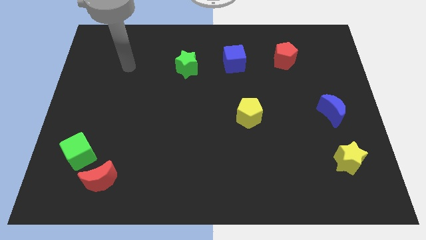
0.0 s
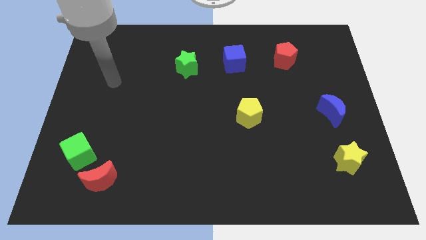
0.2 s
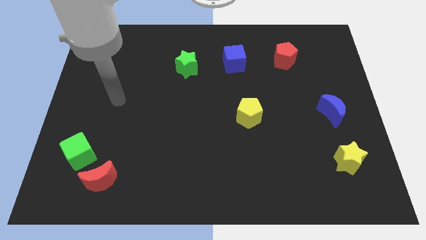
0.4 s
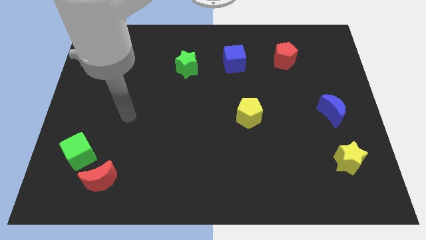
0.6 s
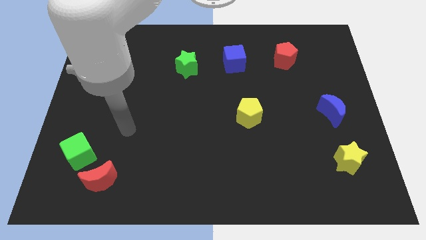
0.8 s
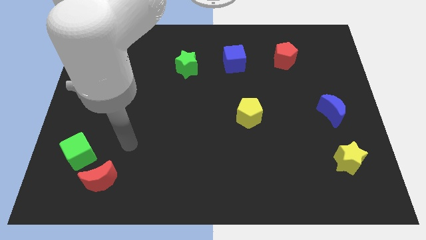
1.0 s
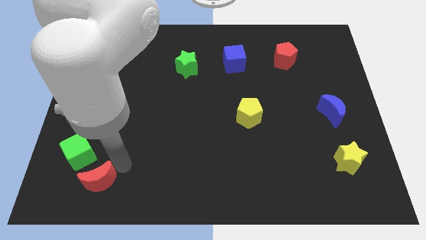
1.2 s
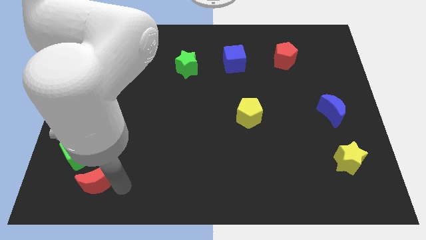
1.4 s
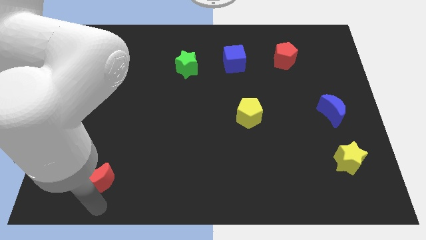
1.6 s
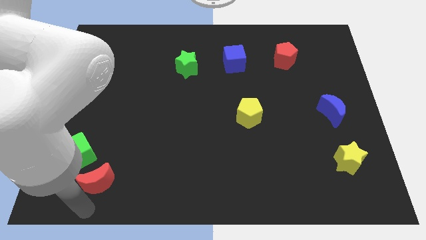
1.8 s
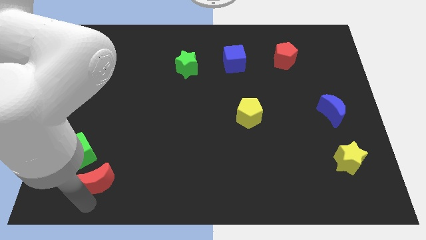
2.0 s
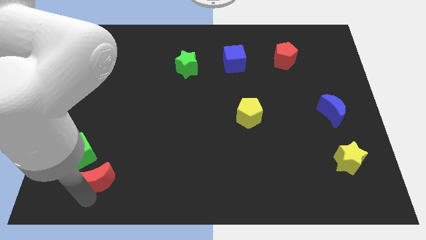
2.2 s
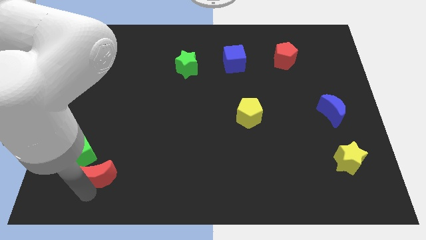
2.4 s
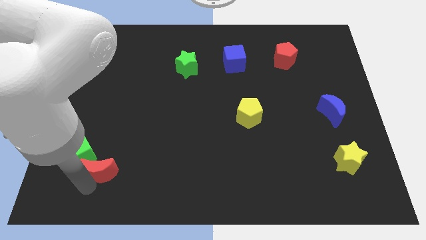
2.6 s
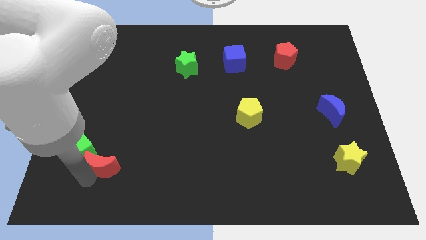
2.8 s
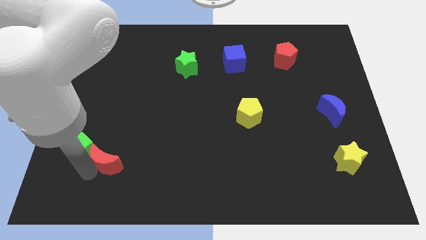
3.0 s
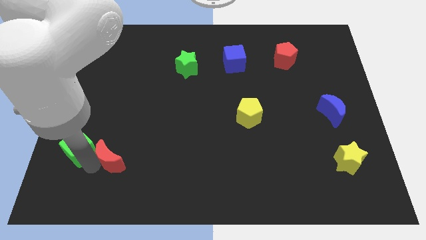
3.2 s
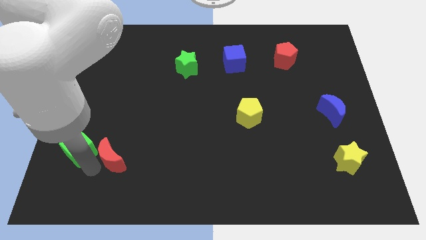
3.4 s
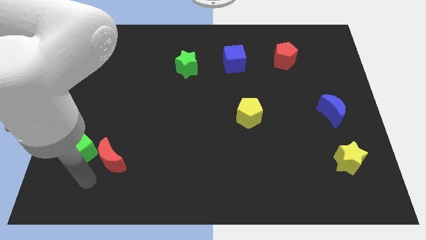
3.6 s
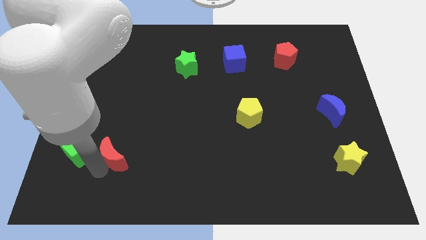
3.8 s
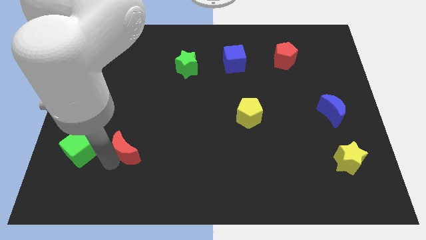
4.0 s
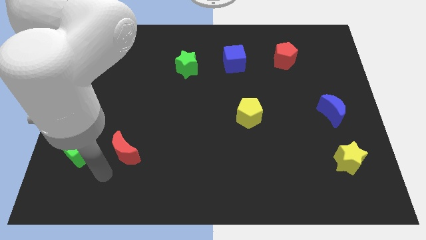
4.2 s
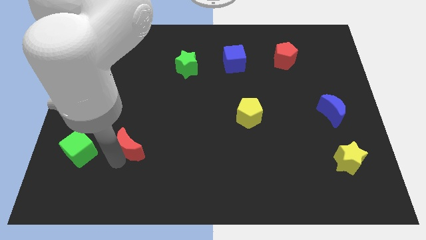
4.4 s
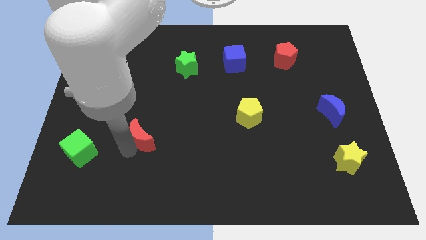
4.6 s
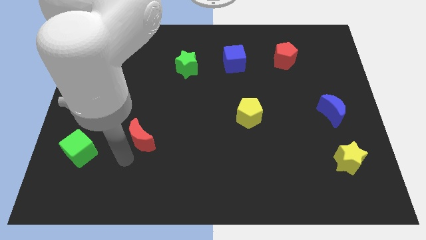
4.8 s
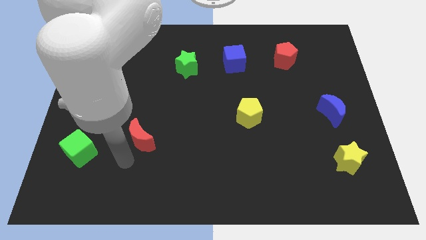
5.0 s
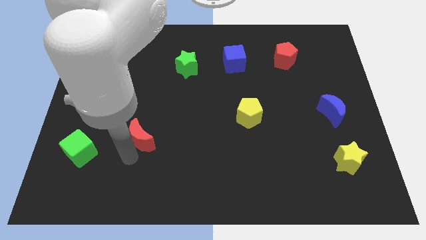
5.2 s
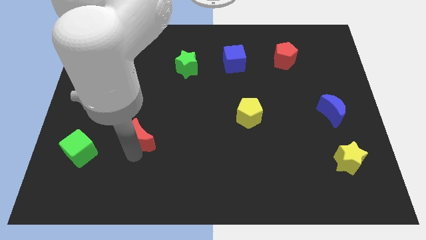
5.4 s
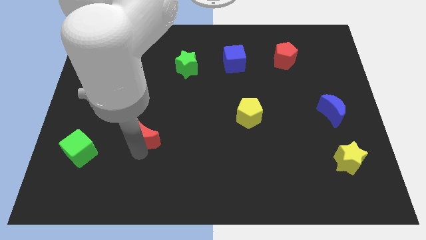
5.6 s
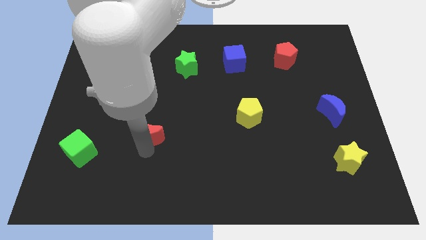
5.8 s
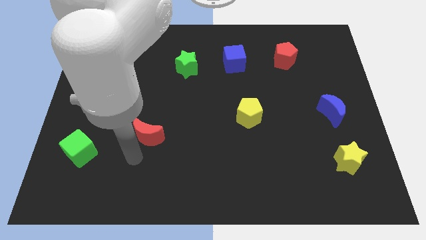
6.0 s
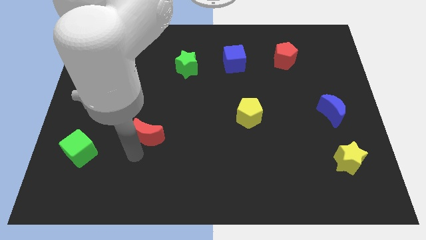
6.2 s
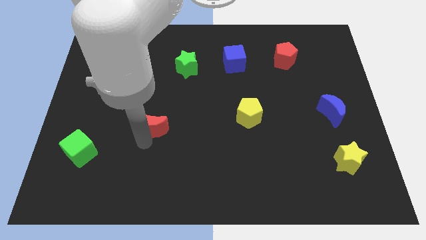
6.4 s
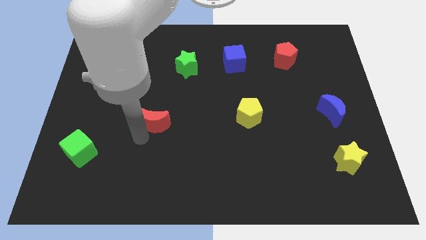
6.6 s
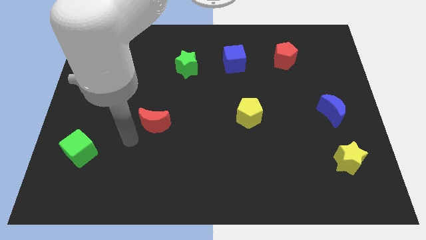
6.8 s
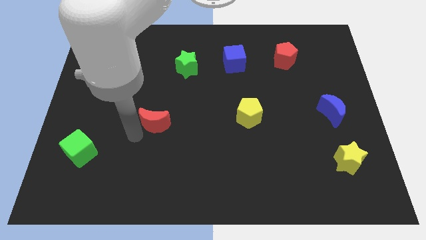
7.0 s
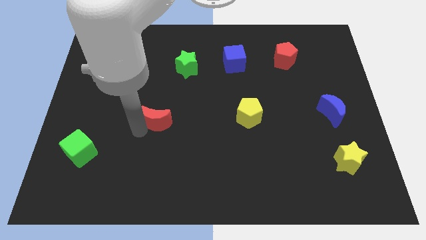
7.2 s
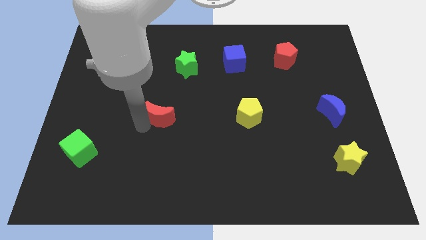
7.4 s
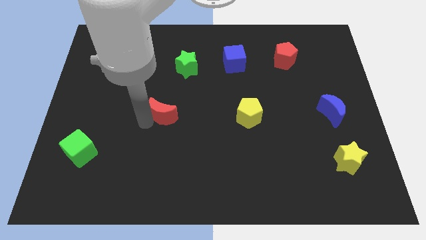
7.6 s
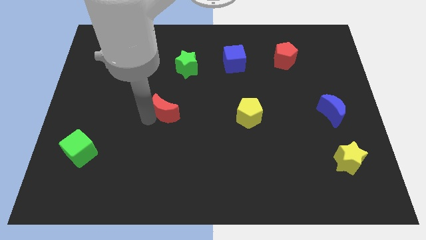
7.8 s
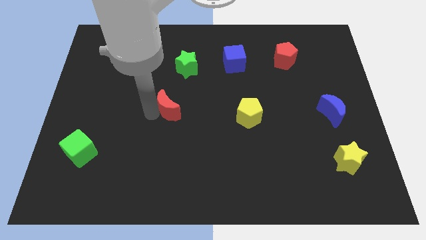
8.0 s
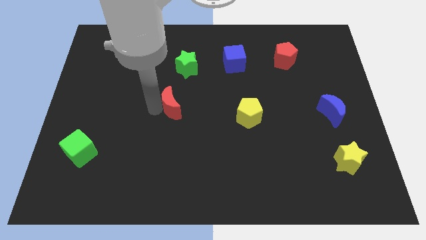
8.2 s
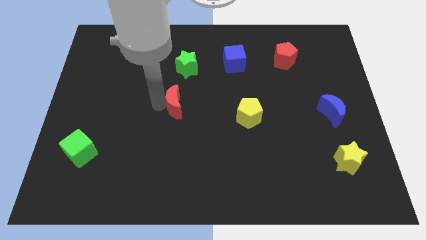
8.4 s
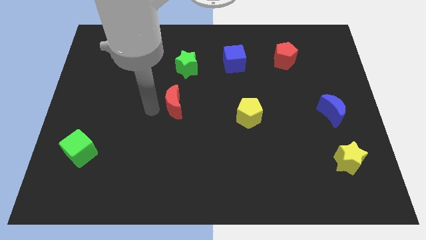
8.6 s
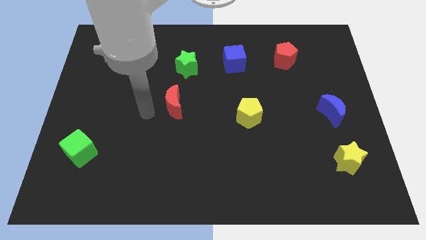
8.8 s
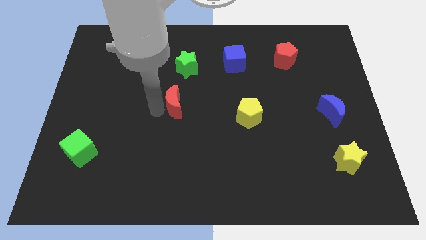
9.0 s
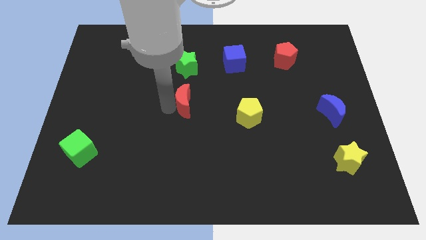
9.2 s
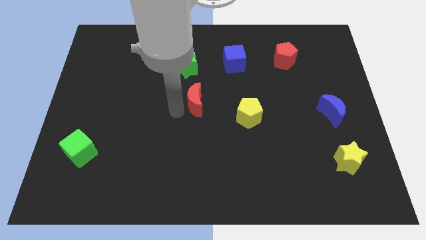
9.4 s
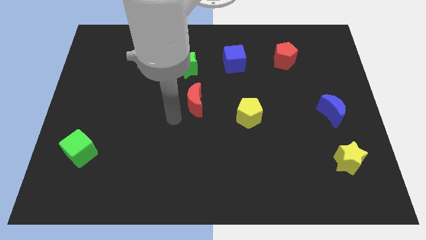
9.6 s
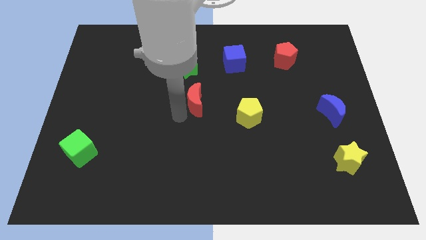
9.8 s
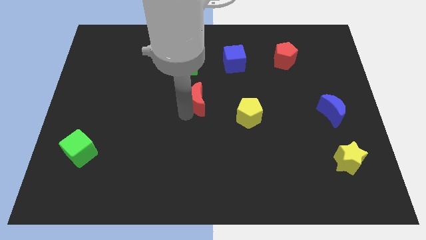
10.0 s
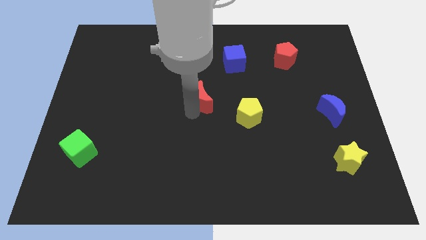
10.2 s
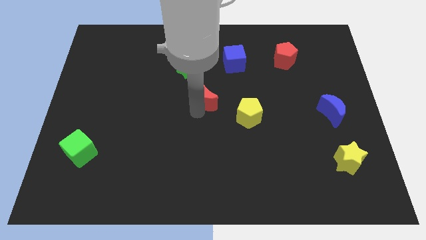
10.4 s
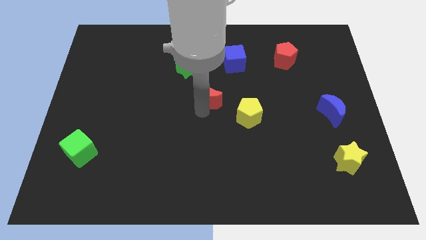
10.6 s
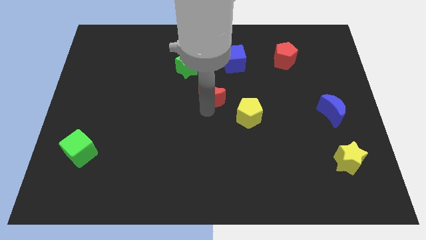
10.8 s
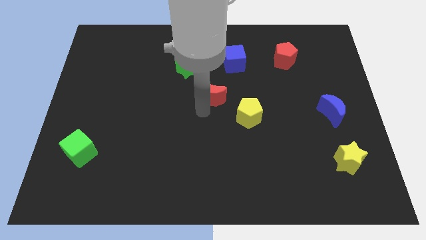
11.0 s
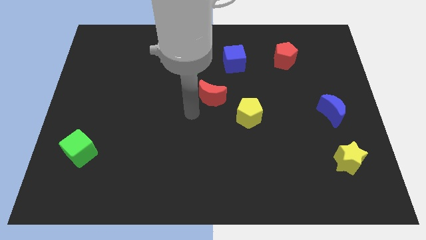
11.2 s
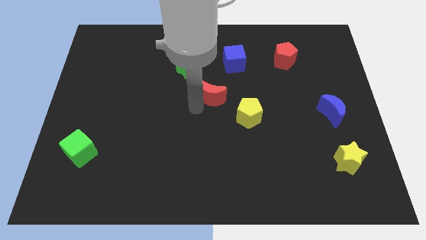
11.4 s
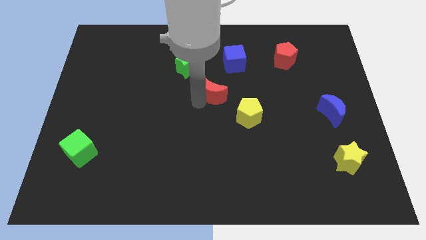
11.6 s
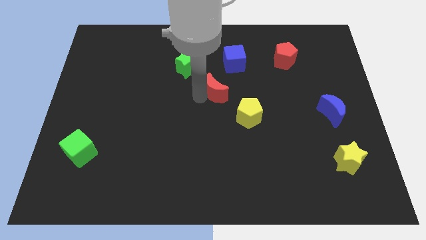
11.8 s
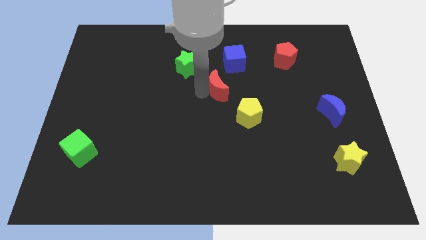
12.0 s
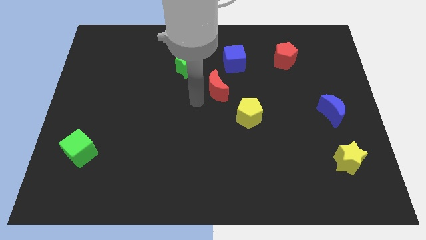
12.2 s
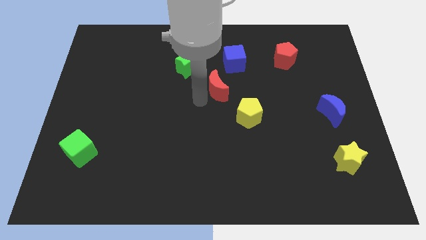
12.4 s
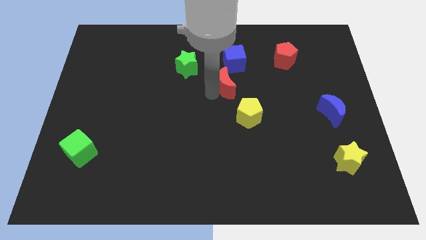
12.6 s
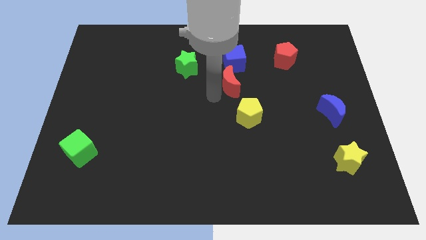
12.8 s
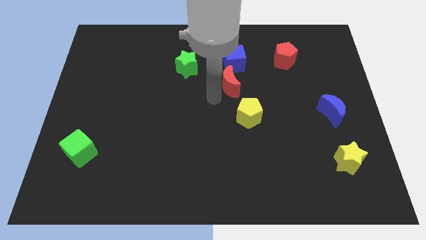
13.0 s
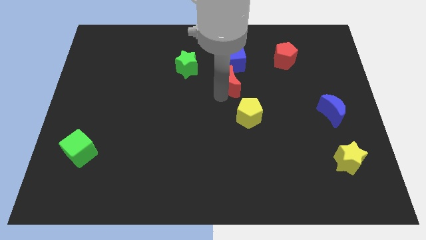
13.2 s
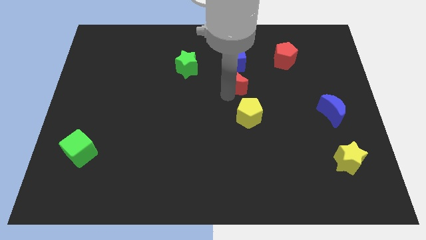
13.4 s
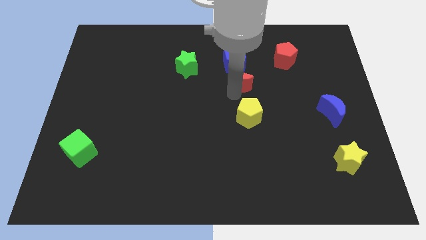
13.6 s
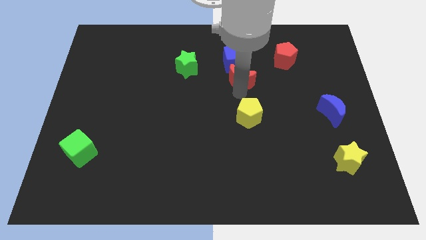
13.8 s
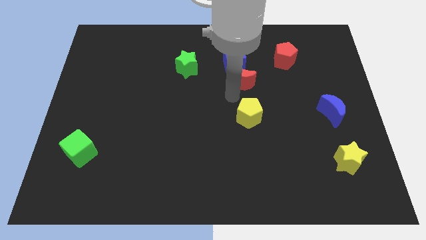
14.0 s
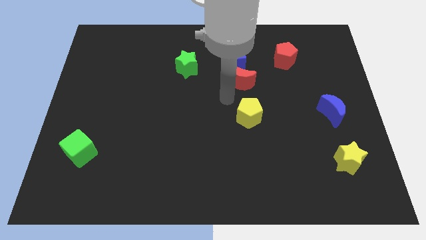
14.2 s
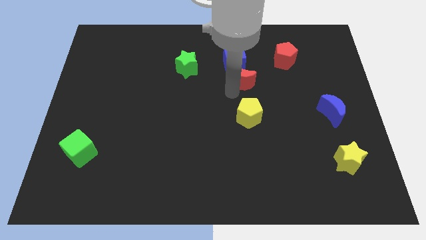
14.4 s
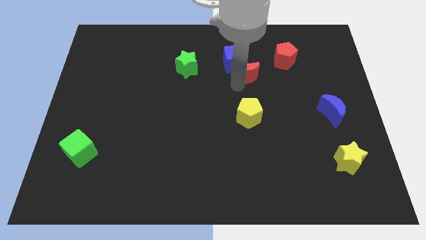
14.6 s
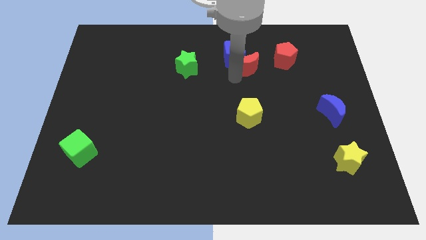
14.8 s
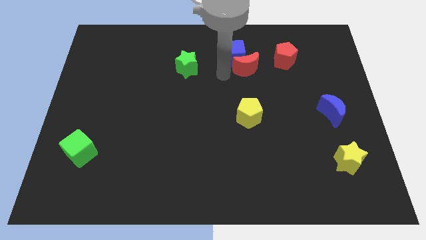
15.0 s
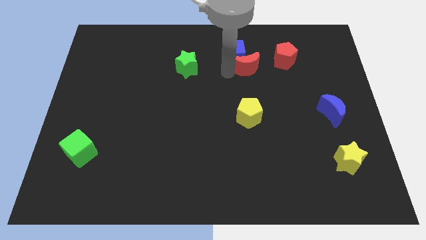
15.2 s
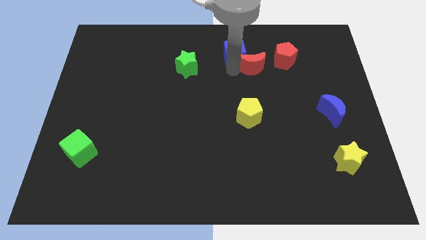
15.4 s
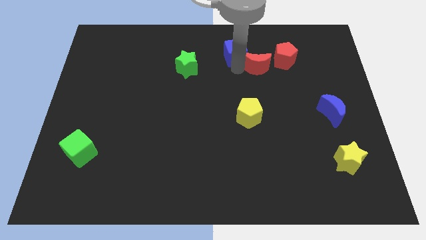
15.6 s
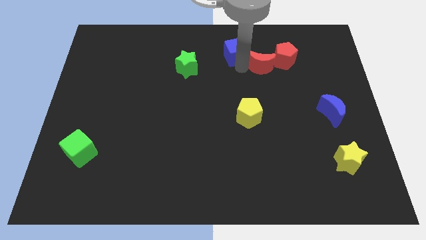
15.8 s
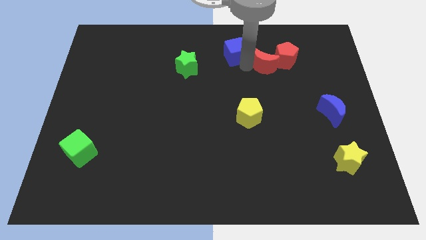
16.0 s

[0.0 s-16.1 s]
put the red moon towards the red pentagon
